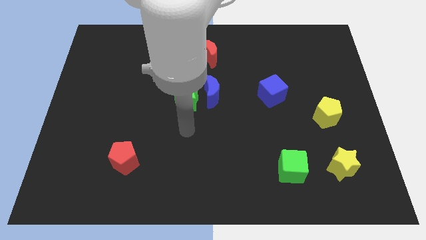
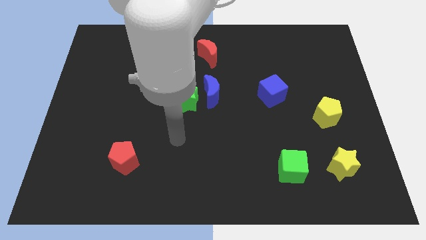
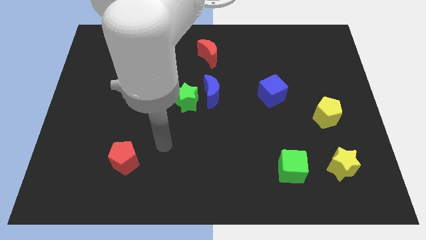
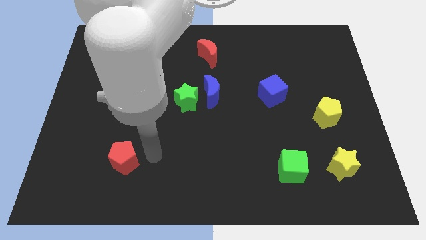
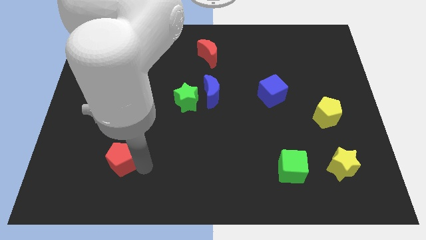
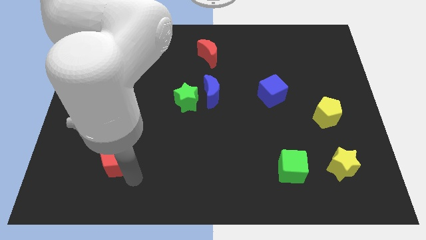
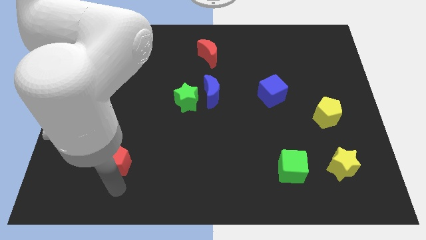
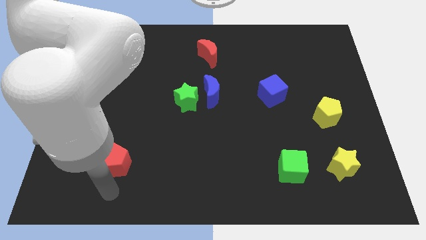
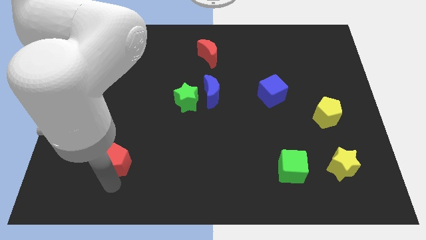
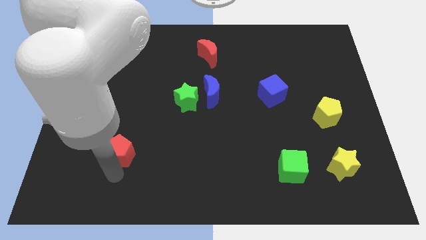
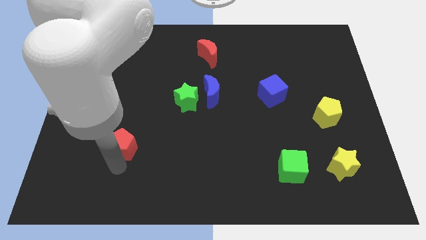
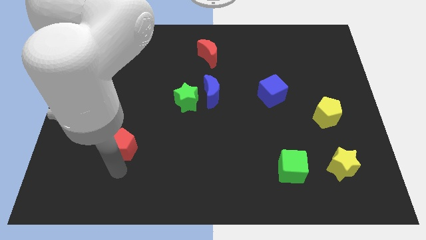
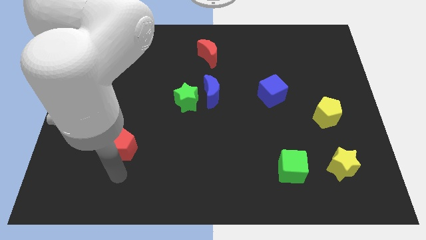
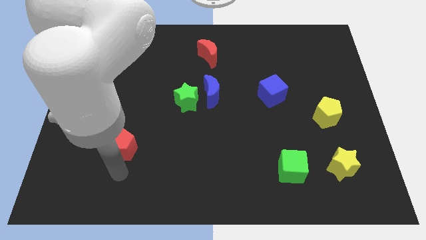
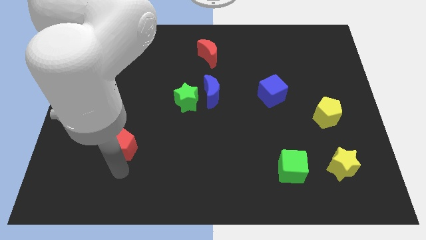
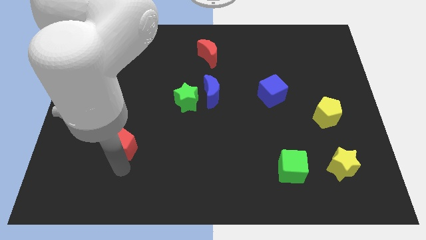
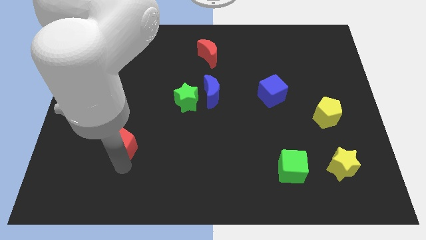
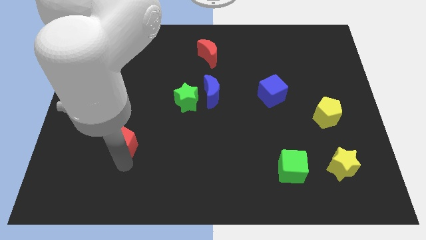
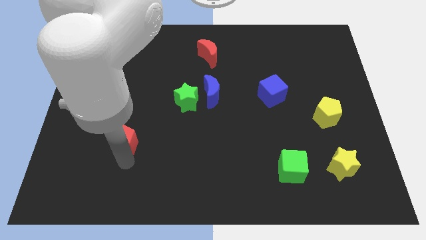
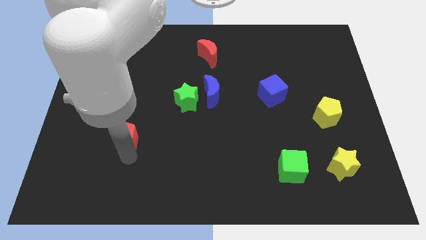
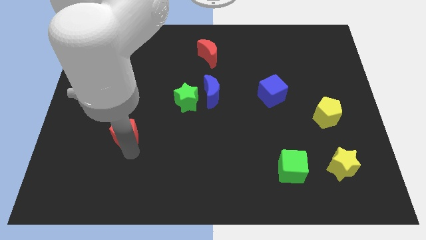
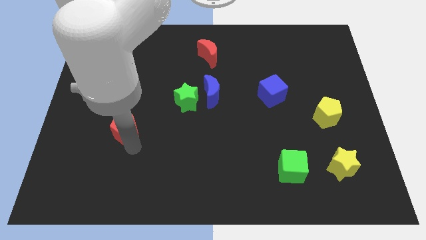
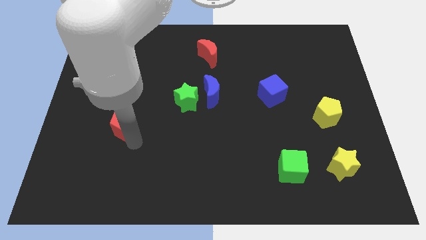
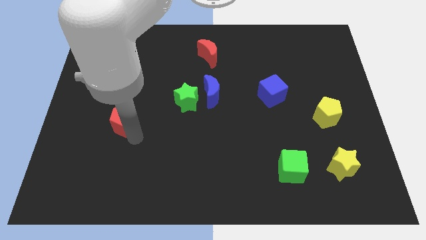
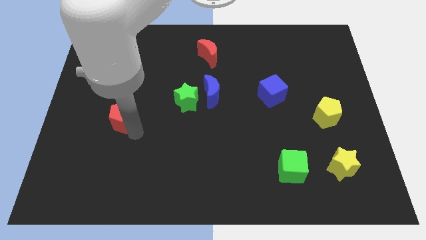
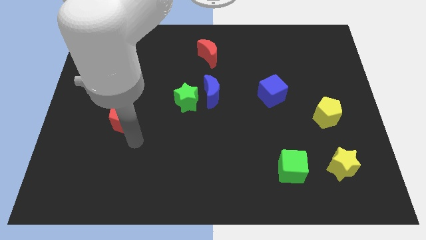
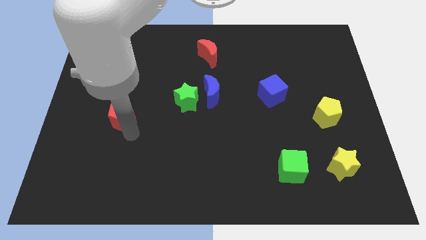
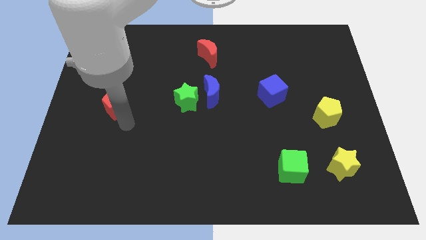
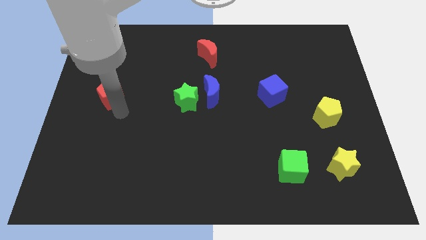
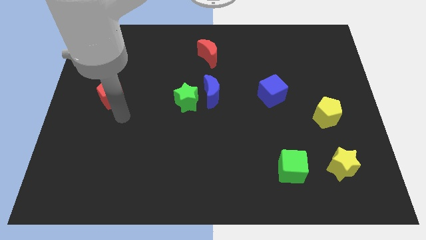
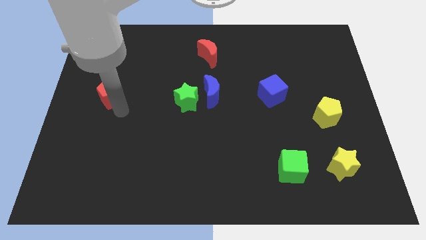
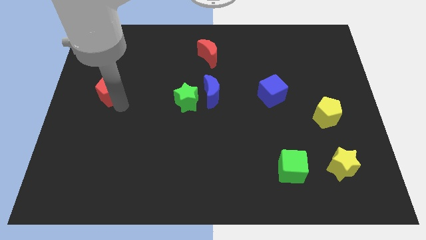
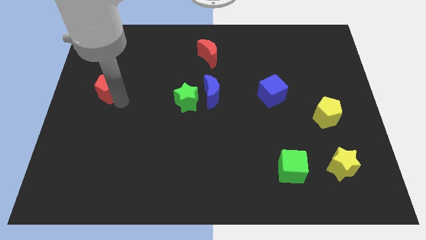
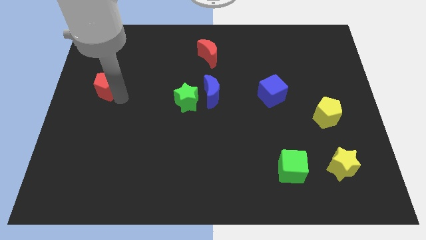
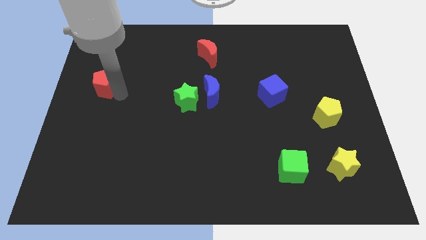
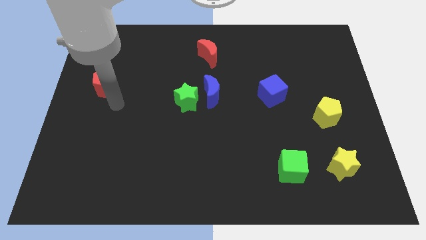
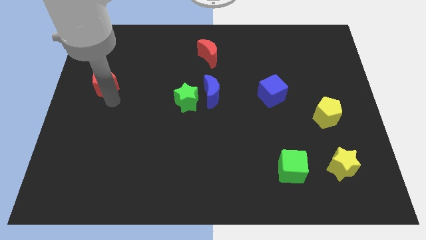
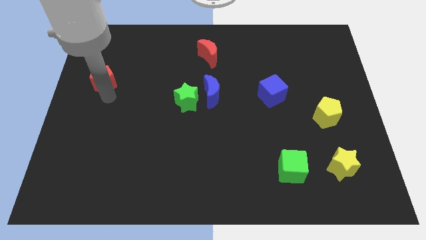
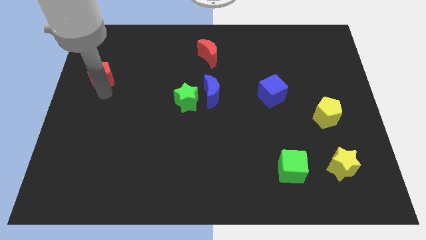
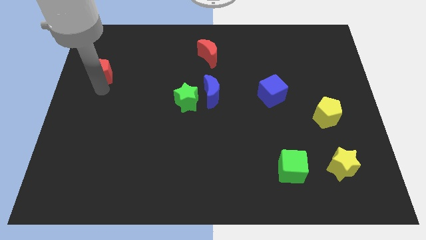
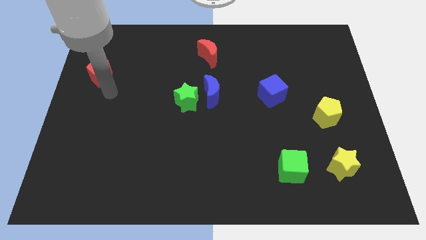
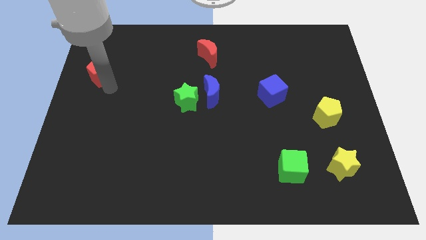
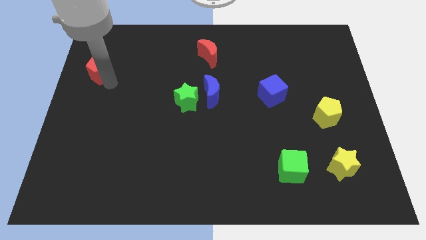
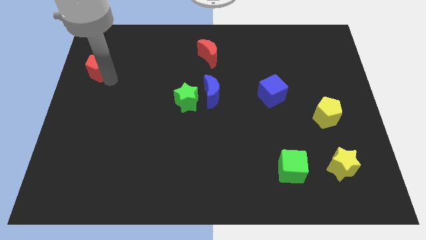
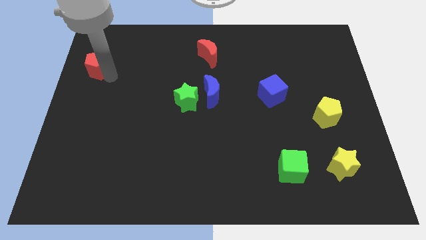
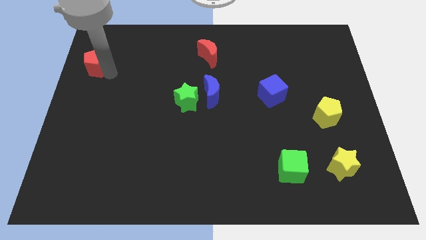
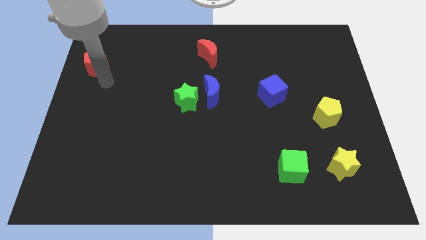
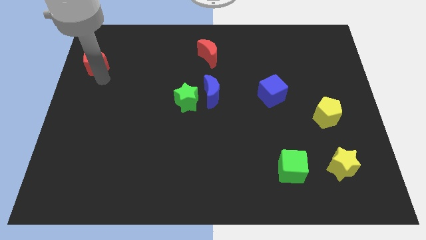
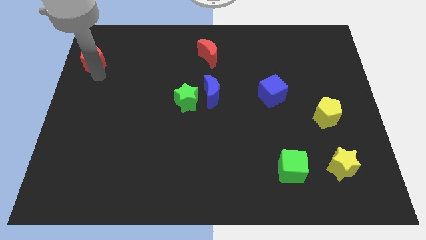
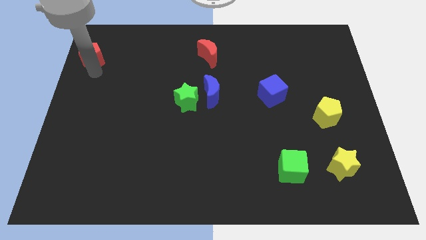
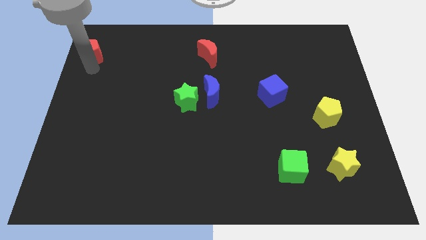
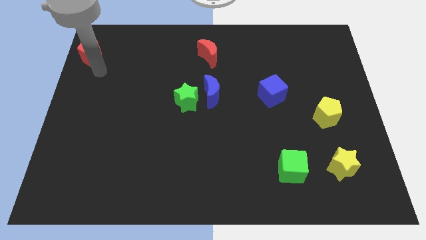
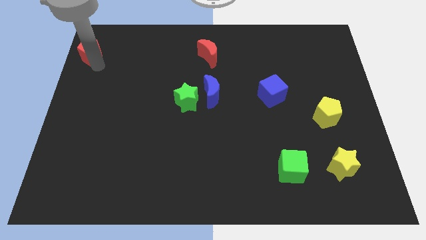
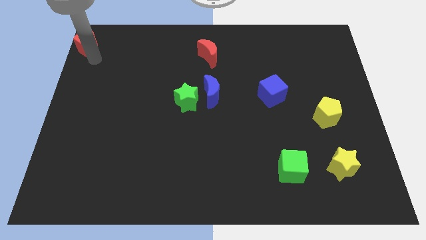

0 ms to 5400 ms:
push the red pentagon to the upper left corner

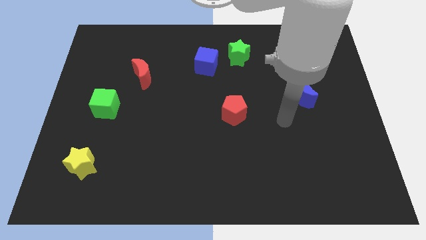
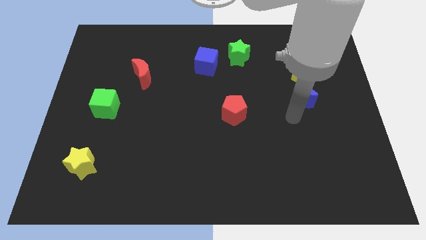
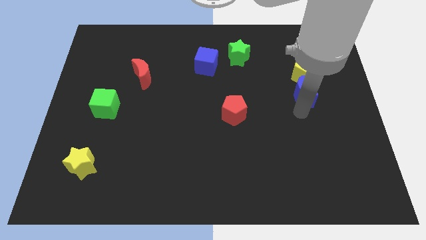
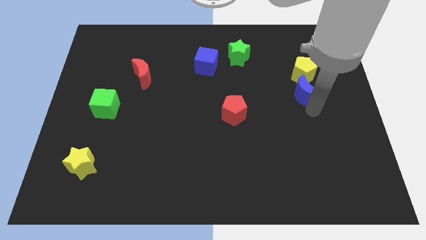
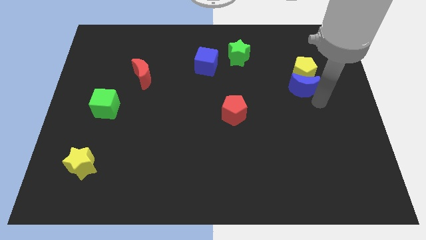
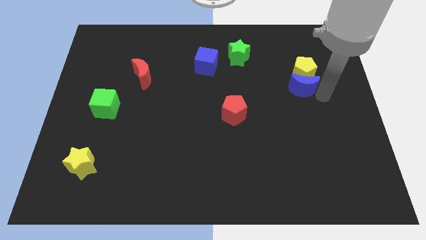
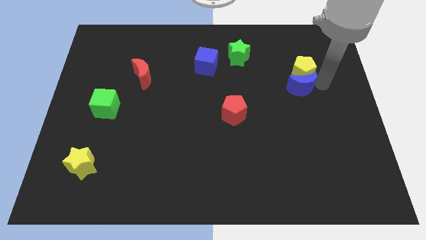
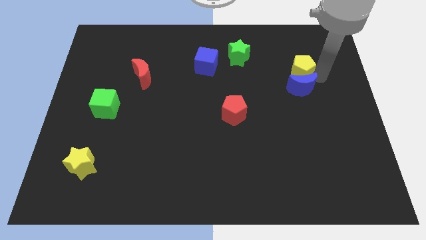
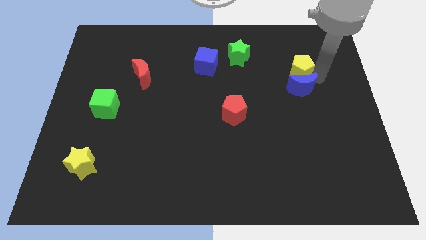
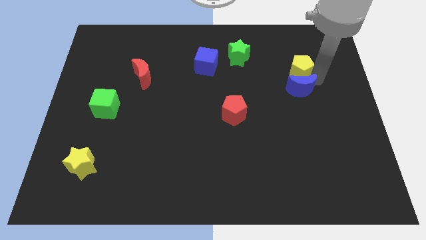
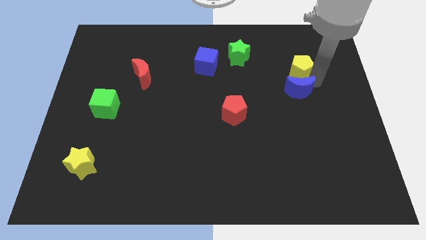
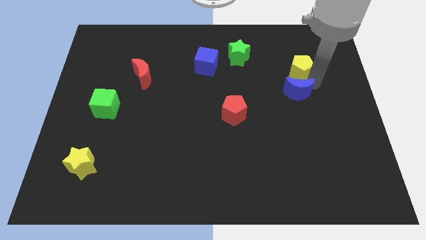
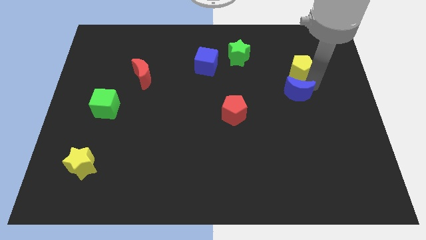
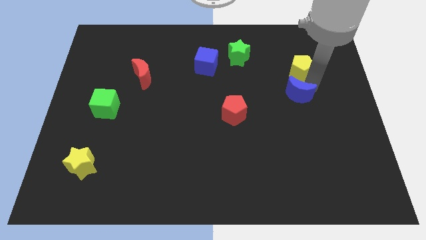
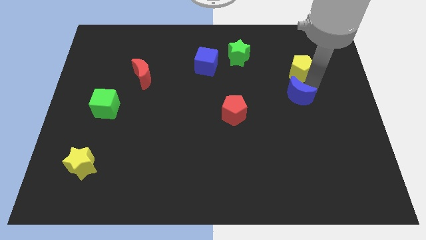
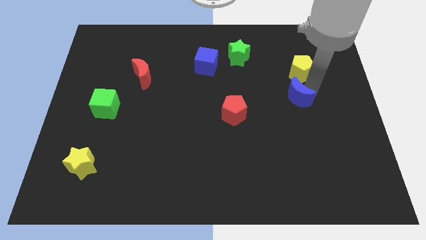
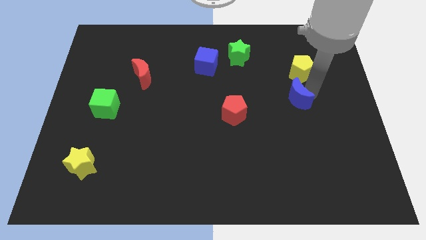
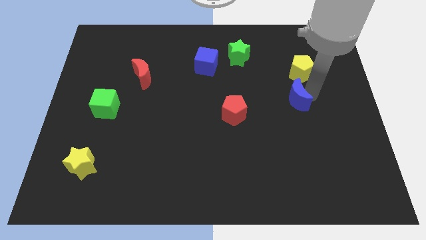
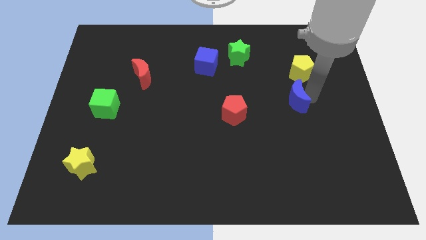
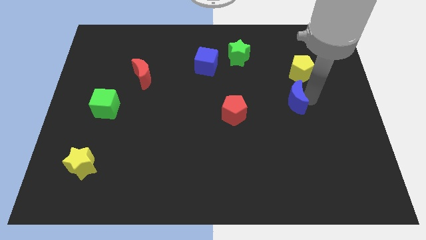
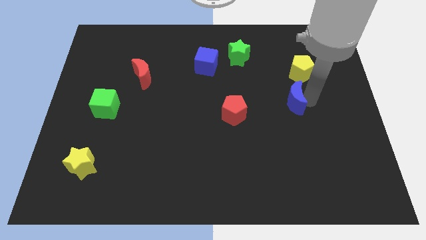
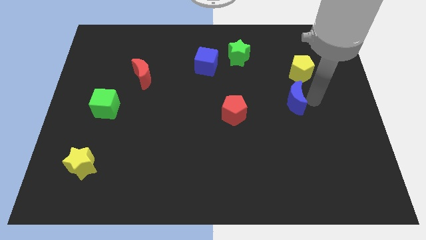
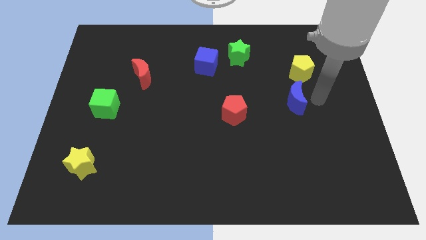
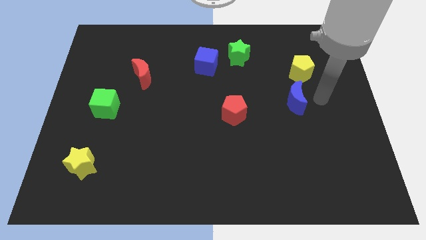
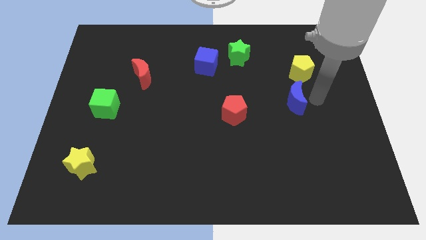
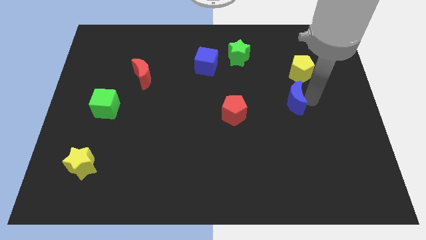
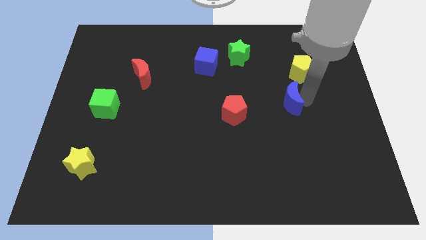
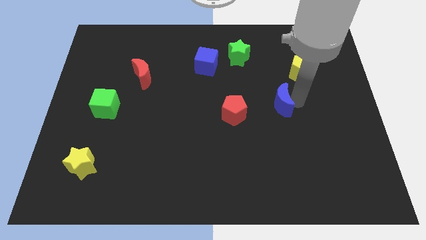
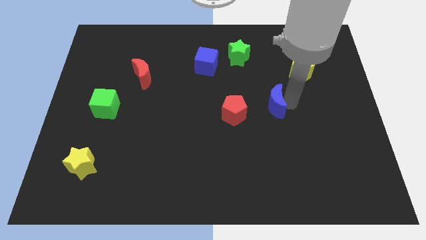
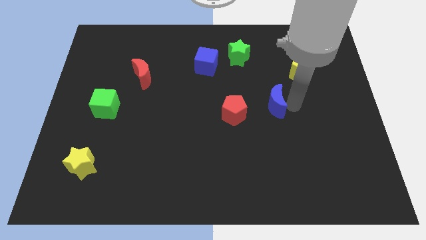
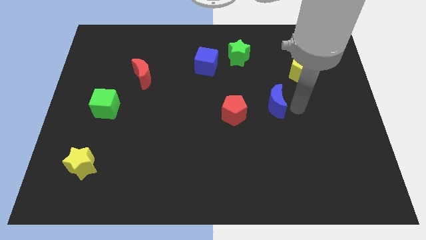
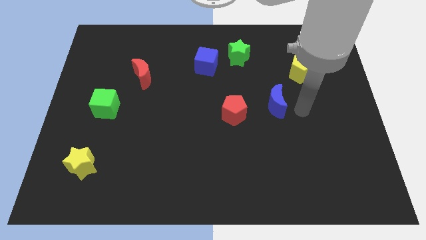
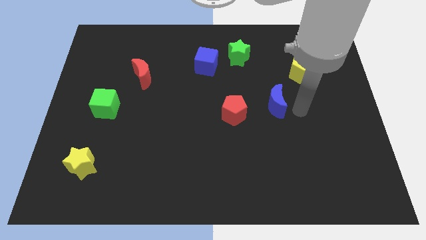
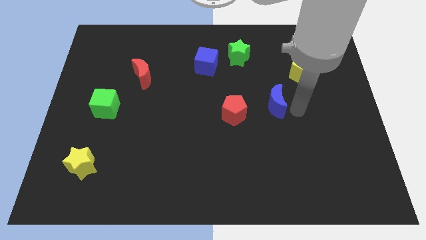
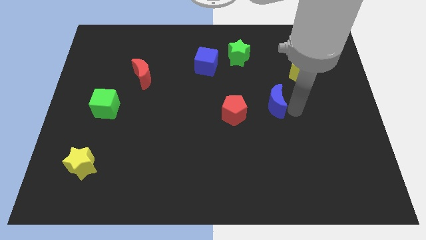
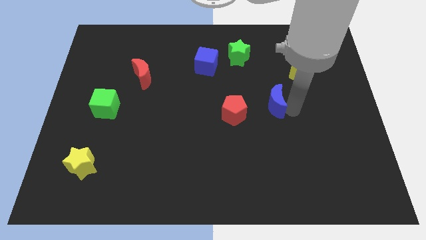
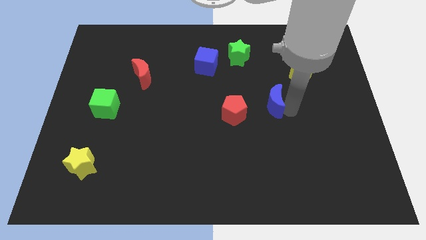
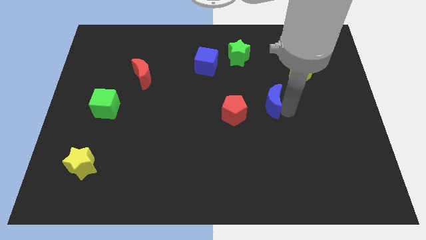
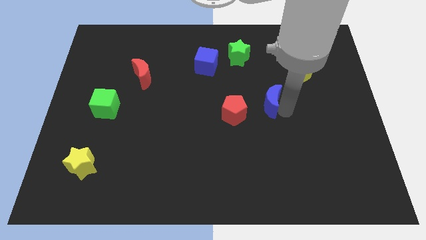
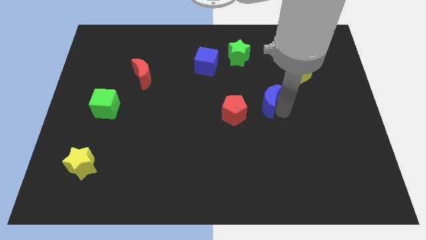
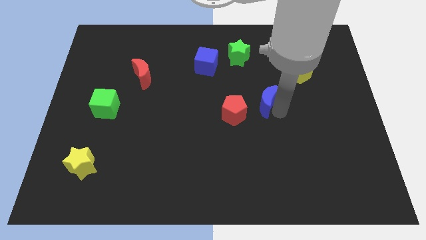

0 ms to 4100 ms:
put the blue moon to the middle of the board
